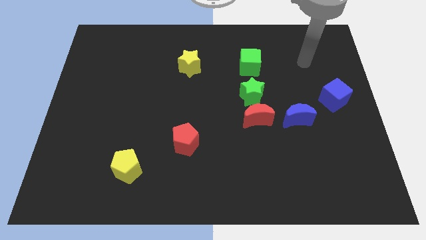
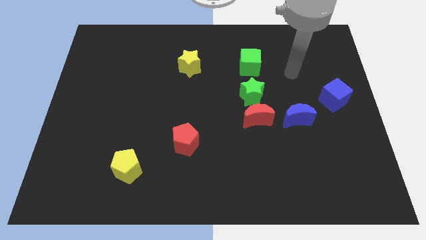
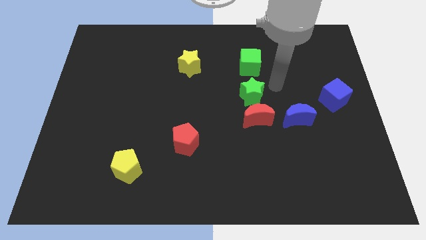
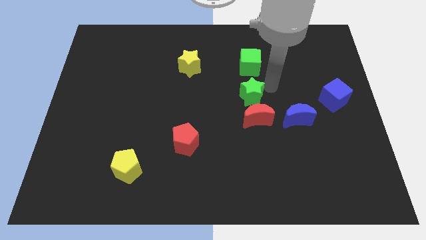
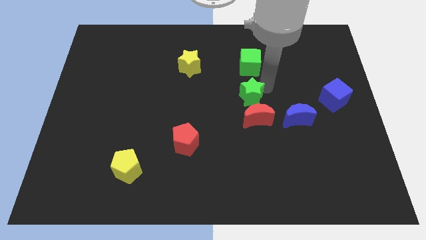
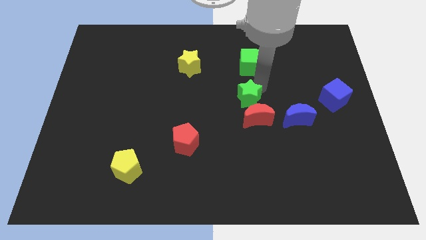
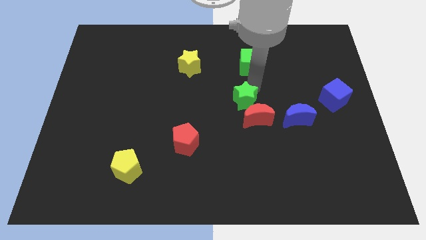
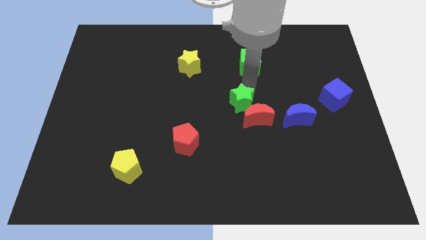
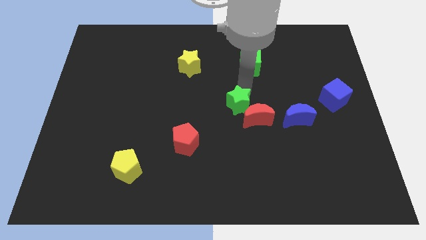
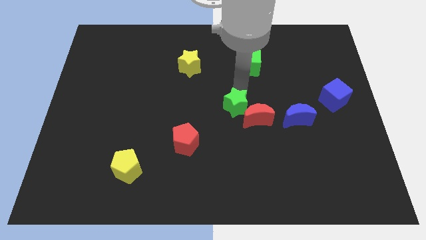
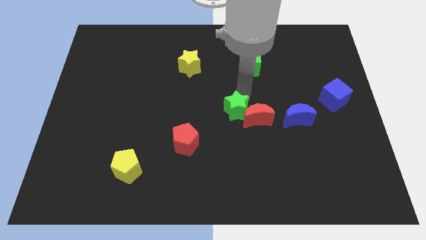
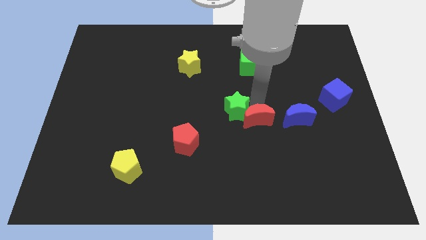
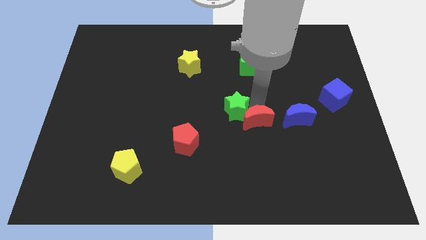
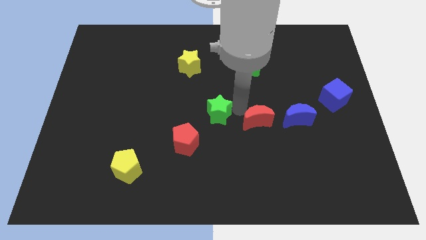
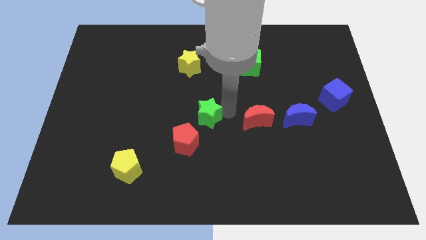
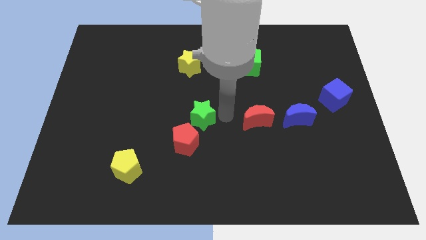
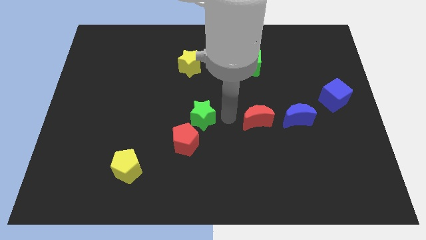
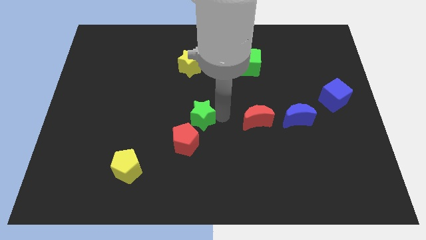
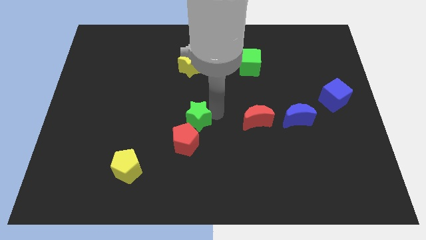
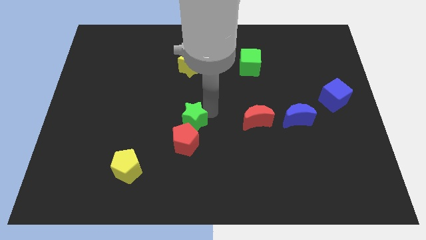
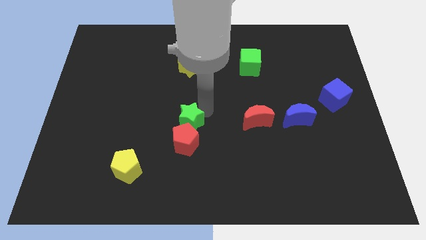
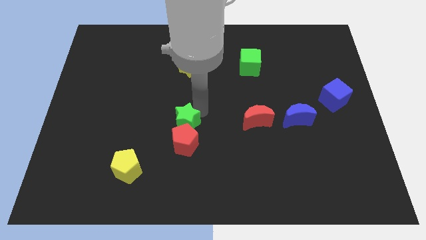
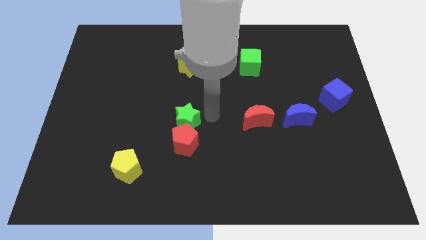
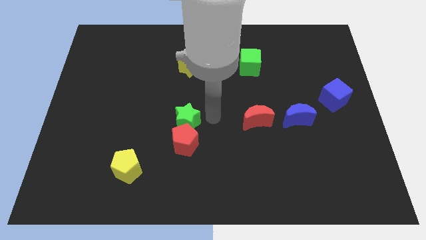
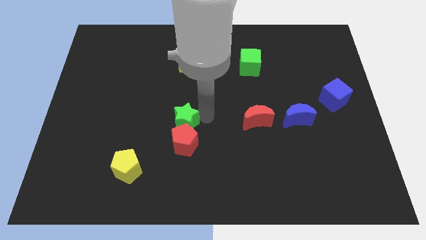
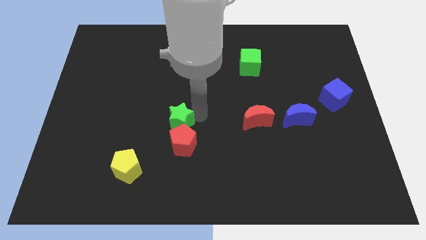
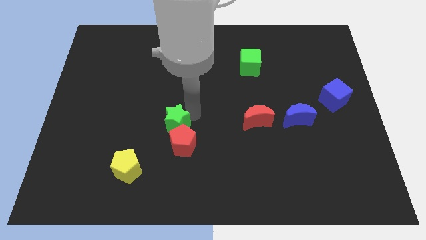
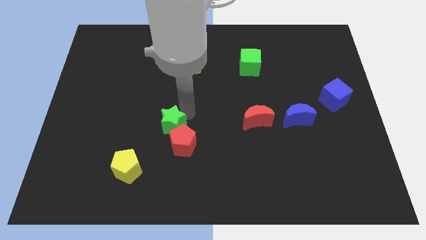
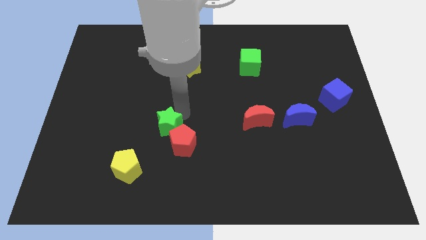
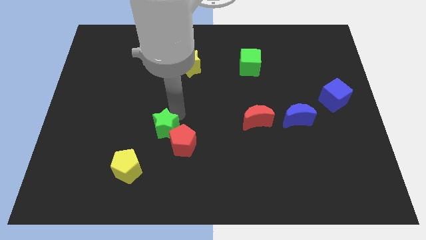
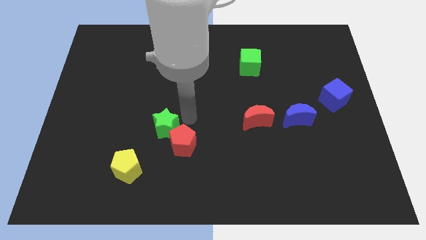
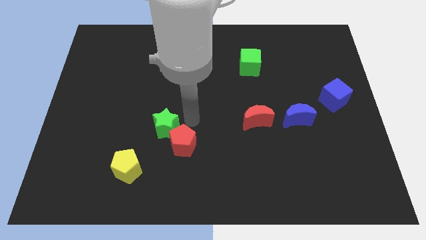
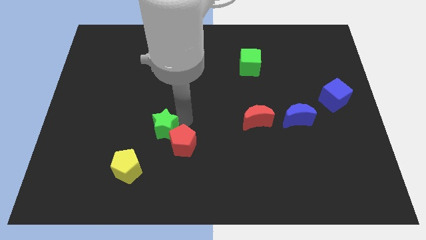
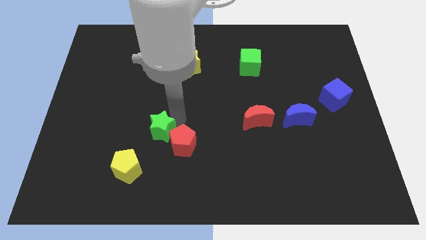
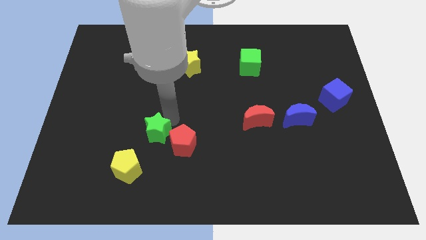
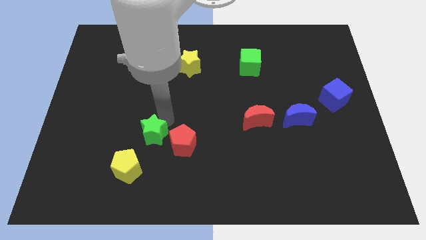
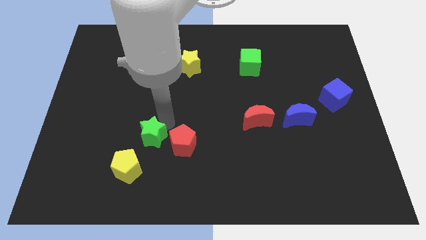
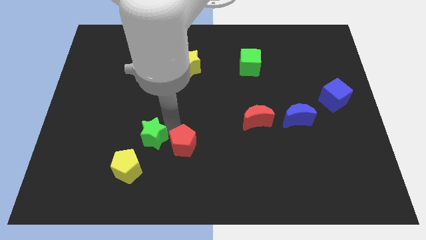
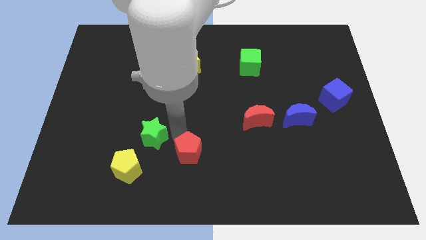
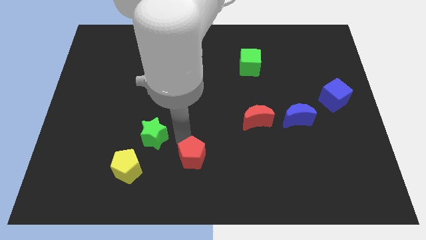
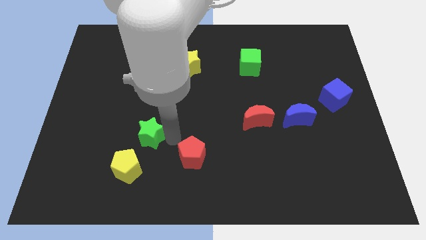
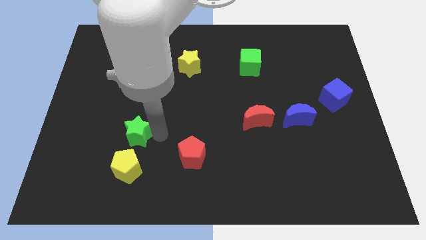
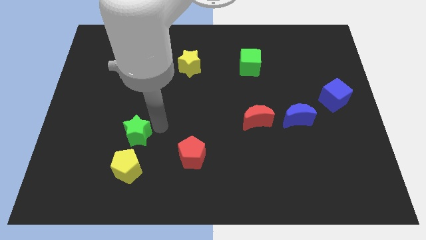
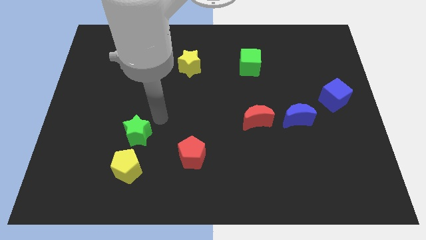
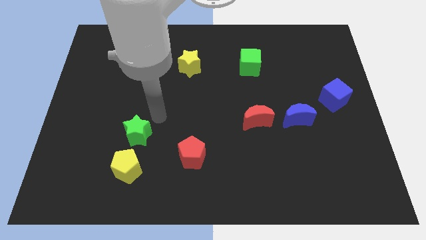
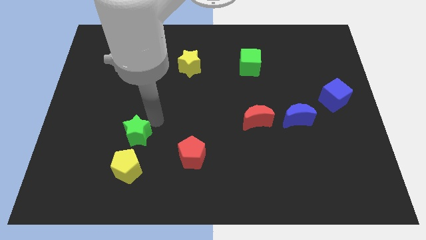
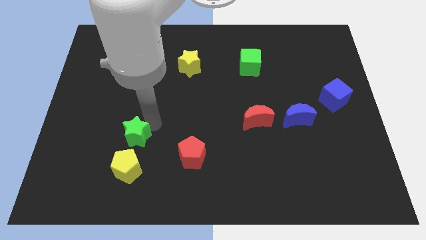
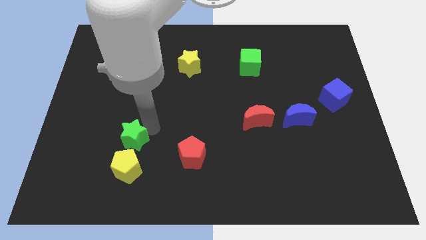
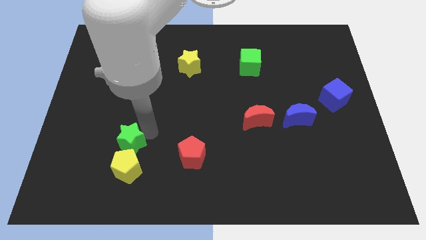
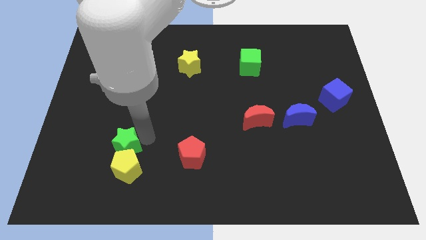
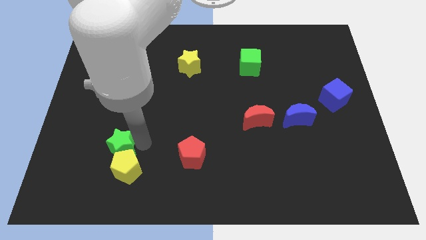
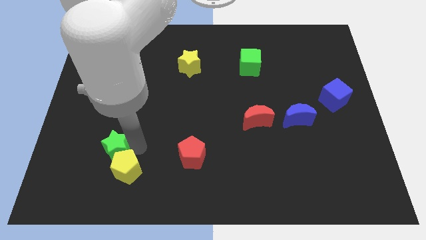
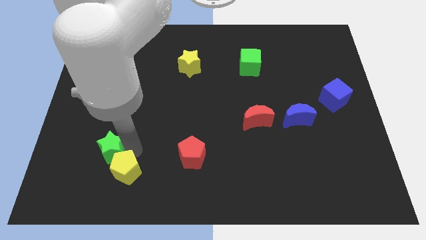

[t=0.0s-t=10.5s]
slide the green star to the left side of the yellow pentagon

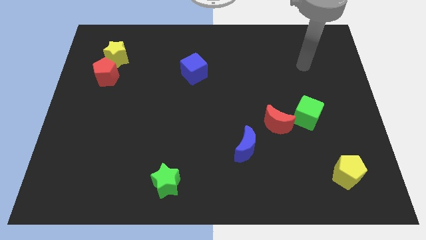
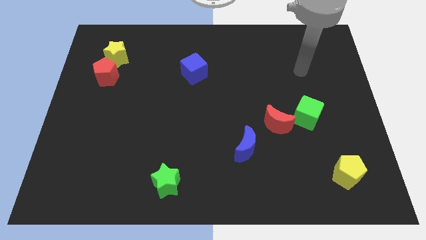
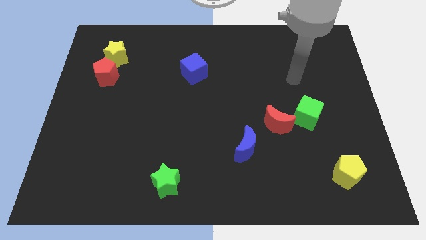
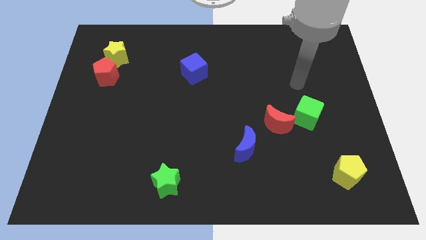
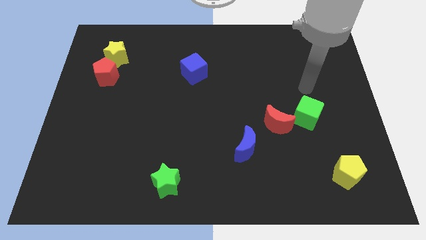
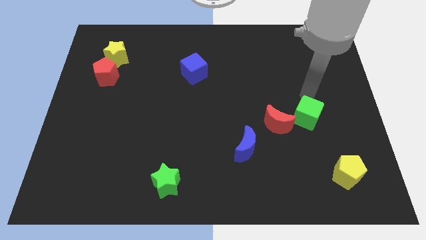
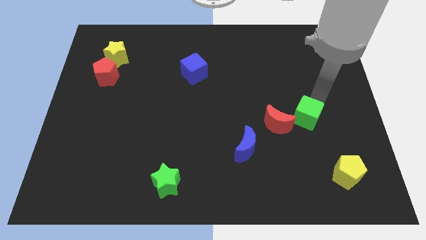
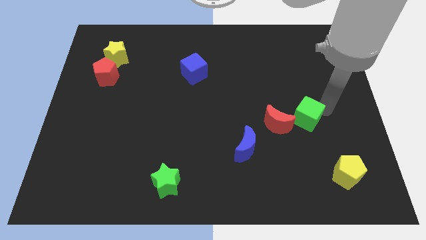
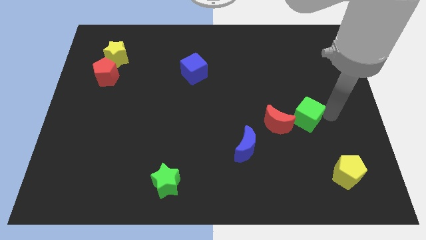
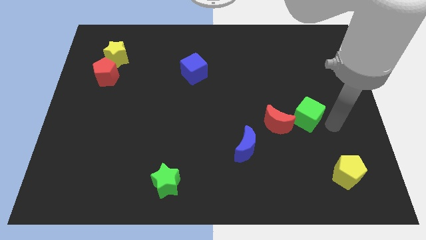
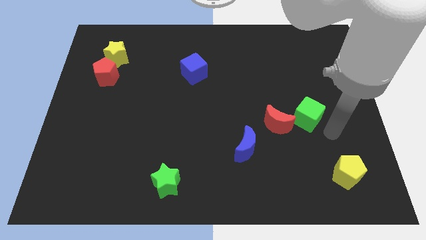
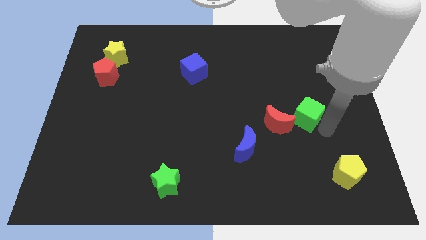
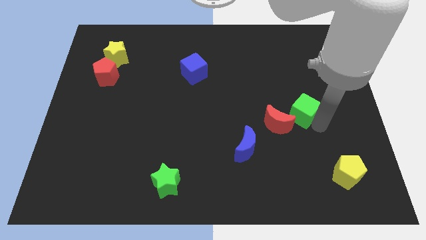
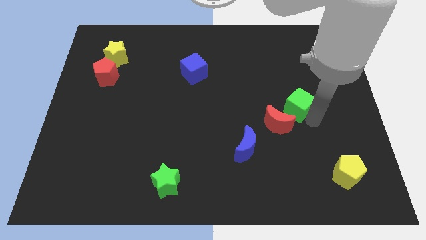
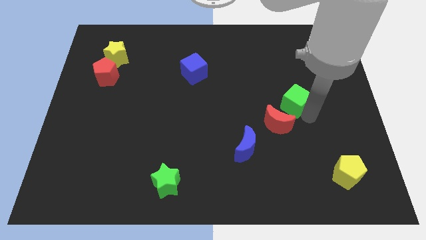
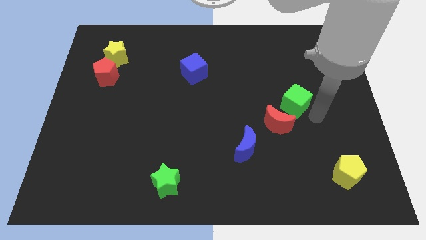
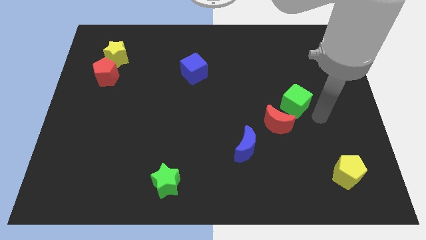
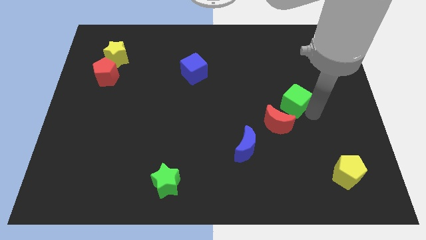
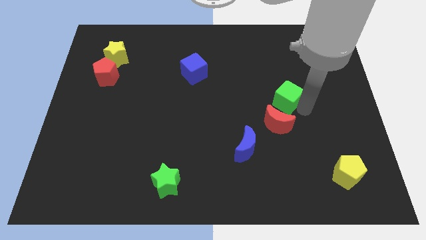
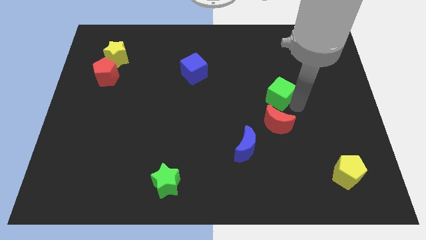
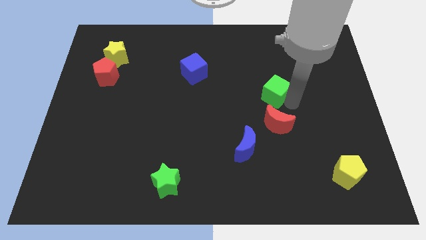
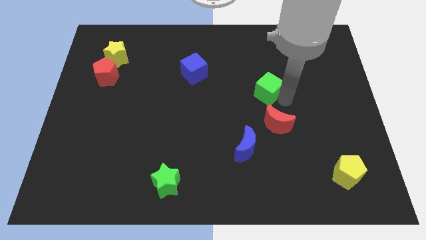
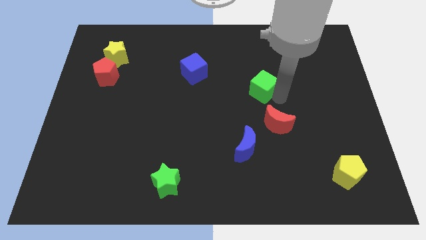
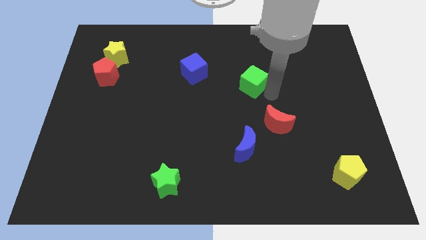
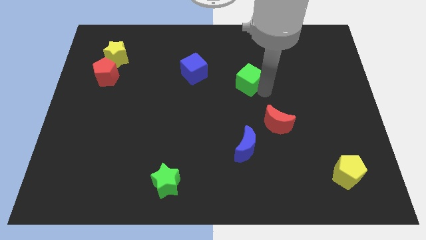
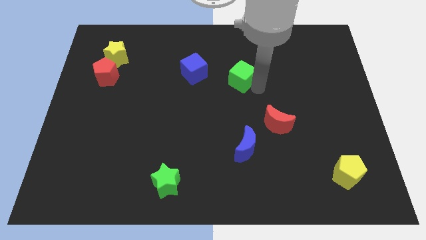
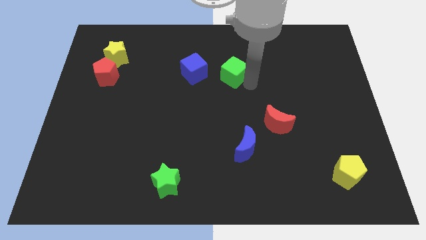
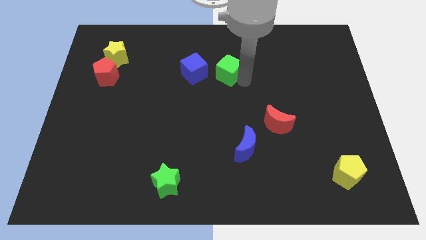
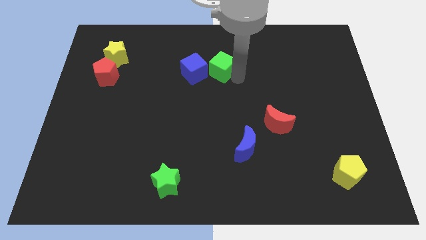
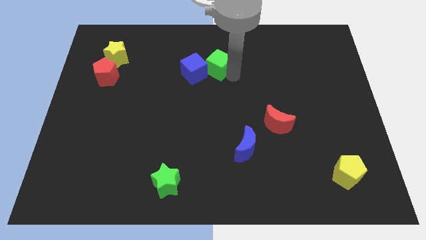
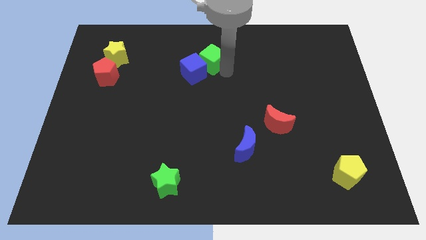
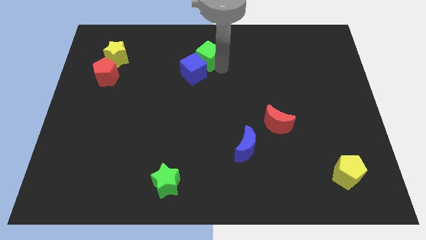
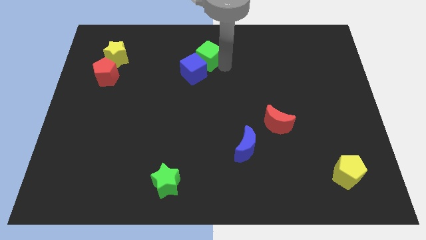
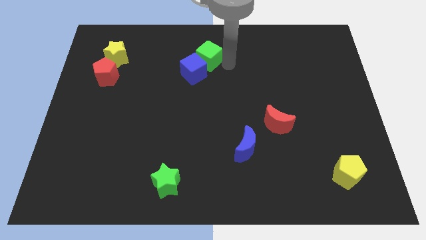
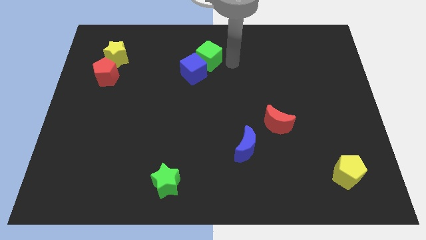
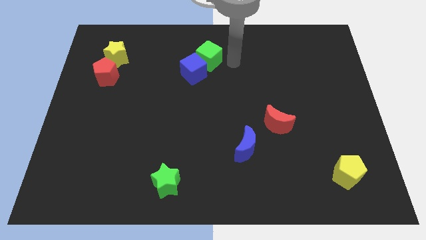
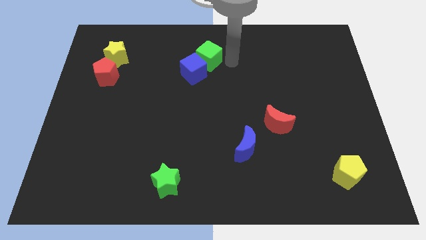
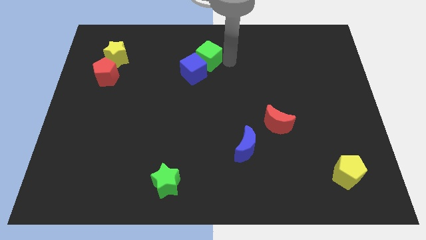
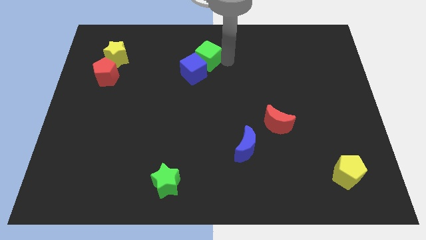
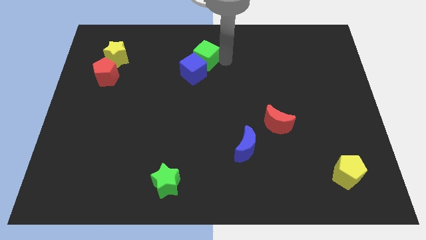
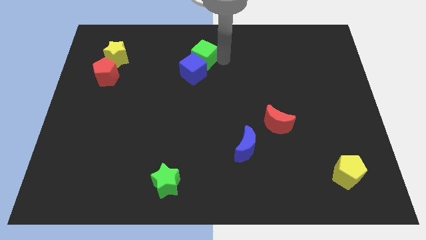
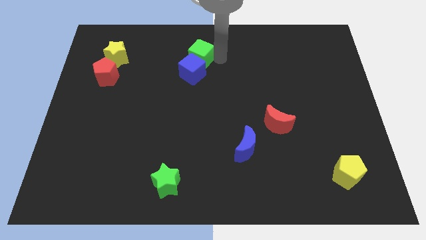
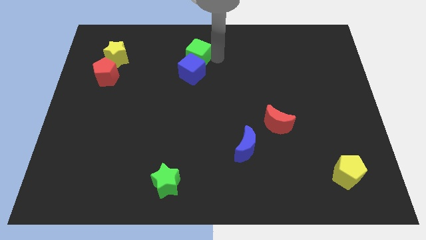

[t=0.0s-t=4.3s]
slide the green cube to the top left of the blue cube
